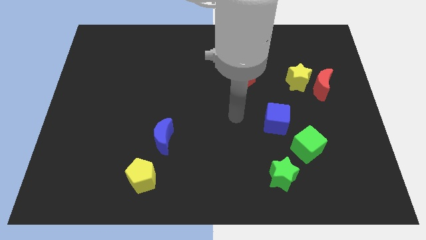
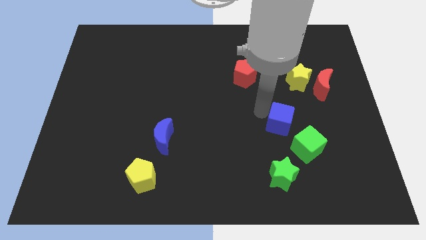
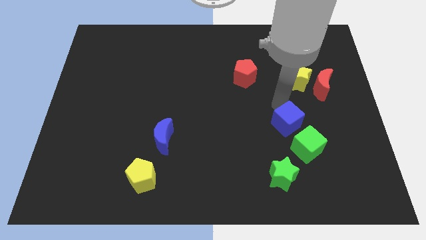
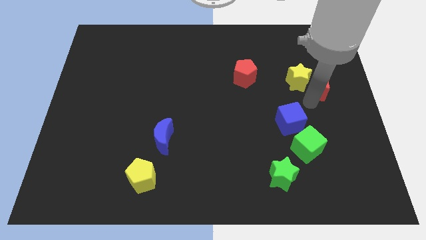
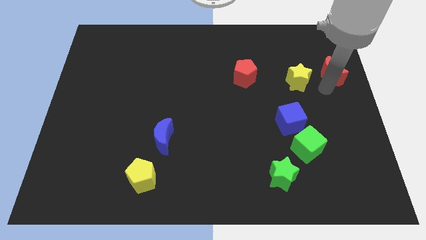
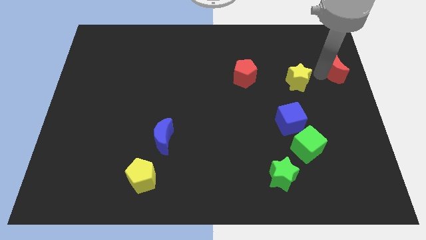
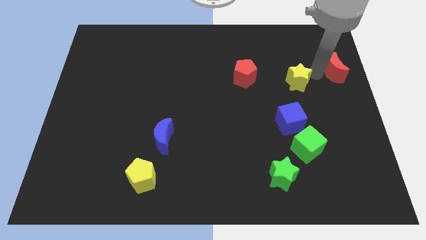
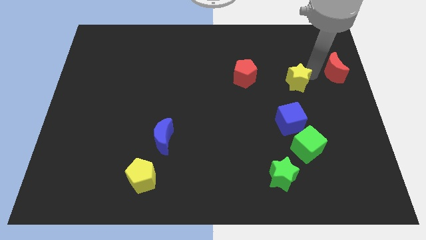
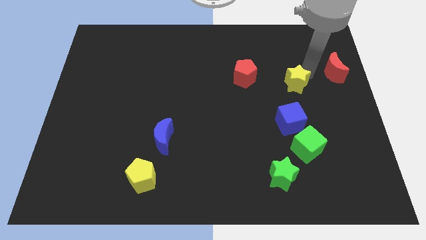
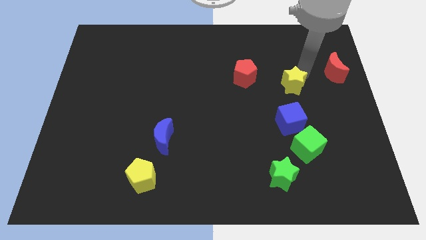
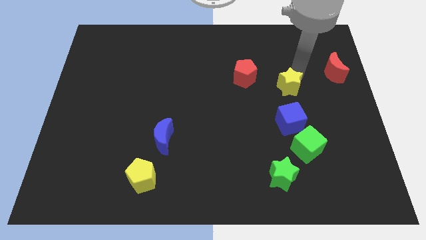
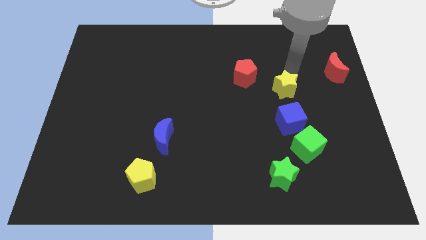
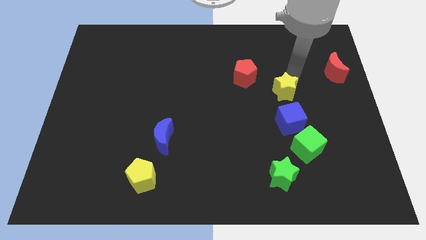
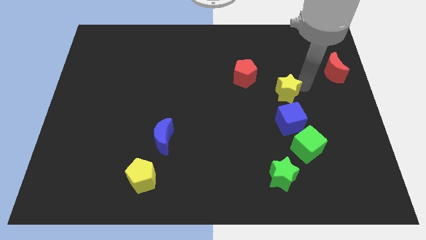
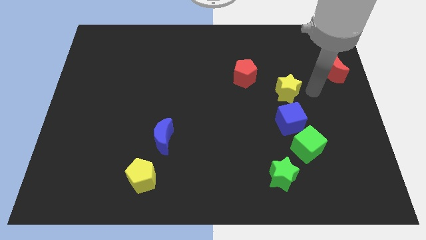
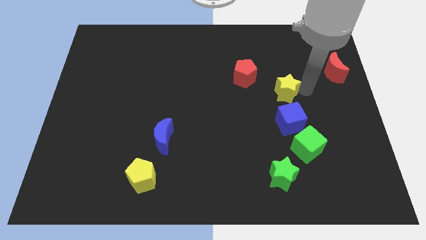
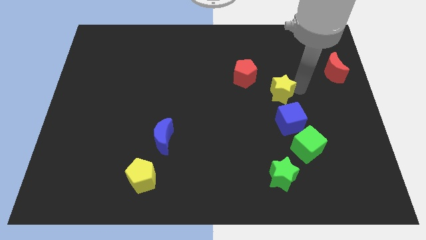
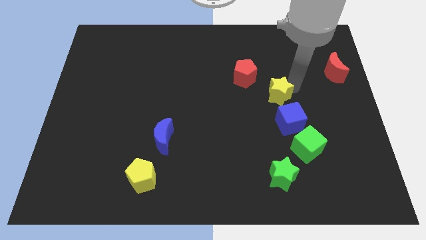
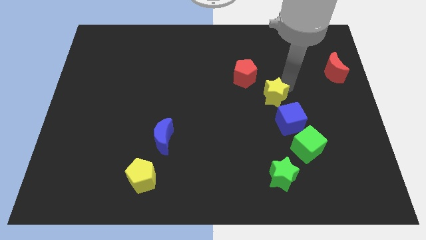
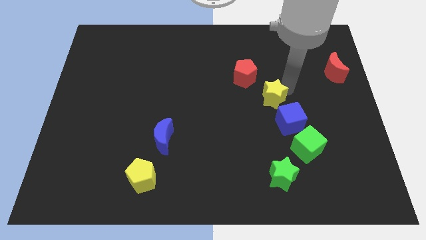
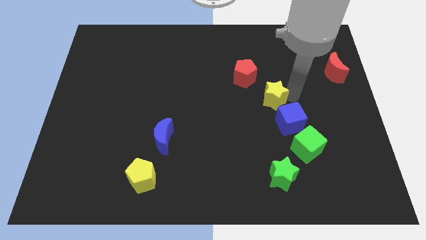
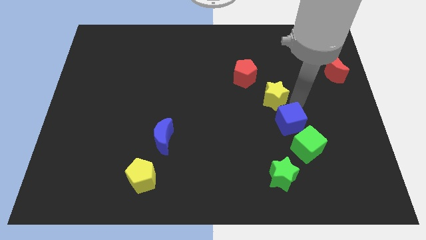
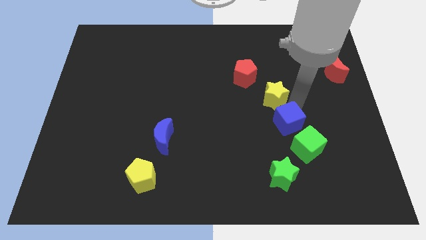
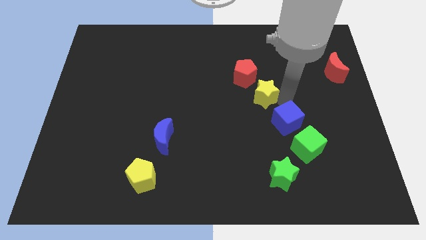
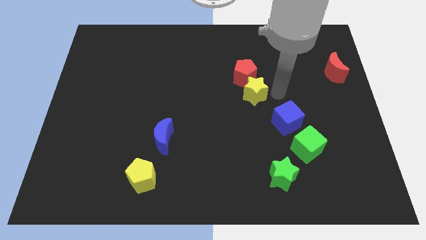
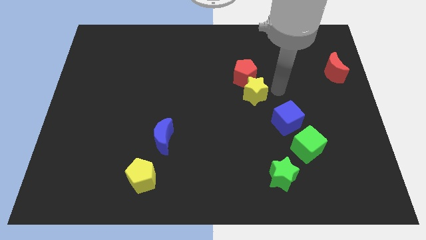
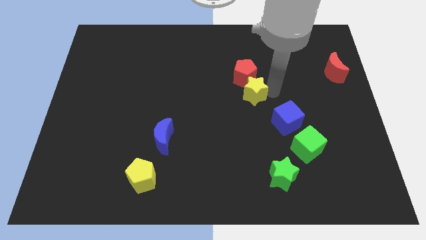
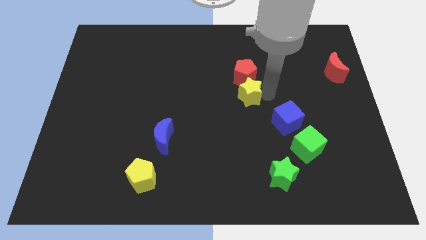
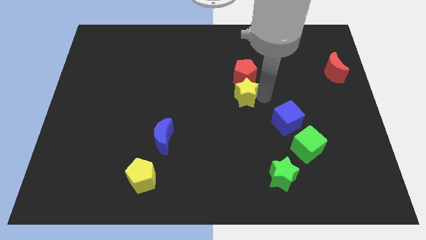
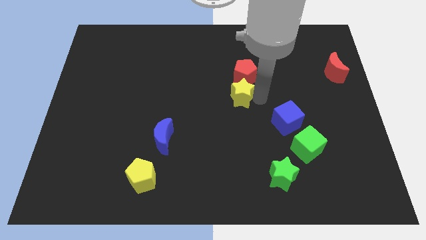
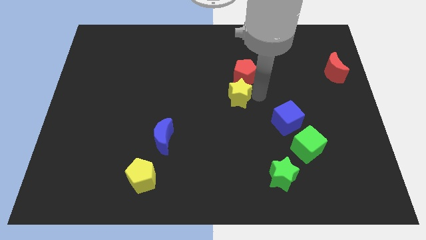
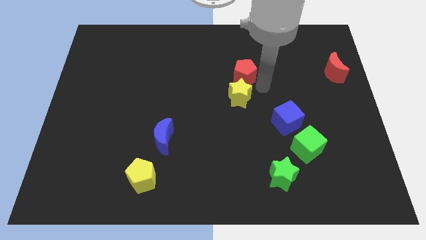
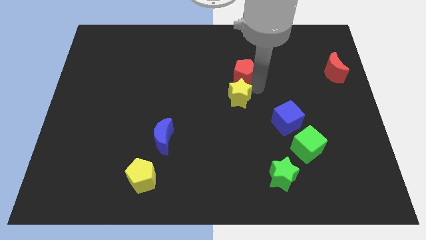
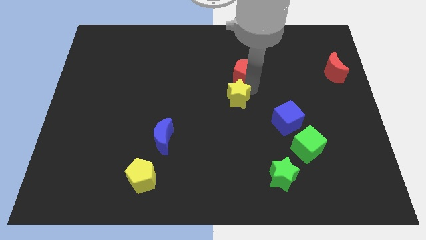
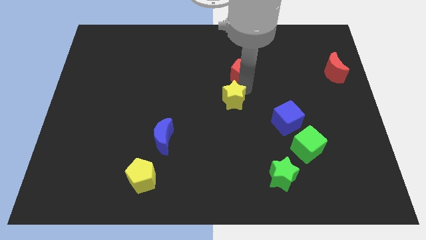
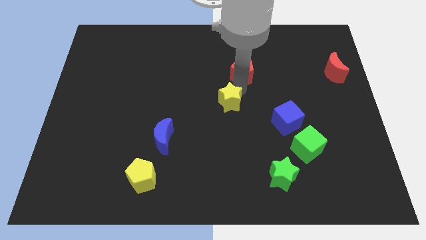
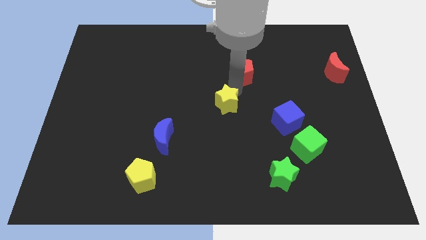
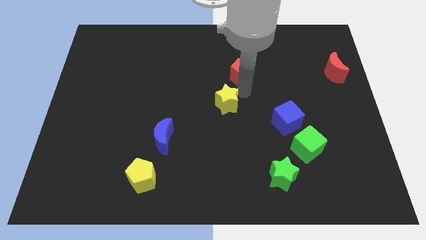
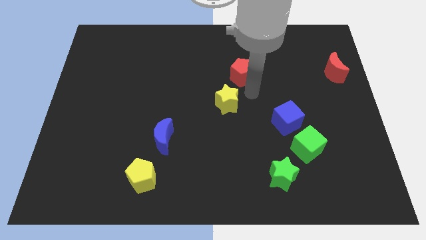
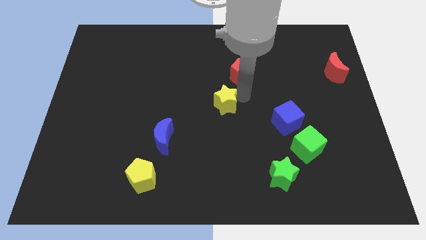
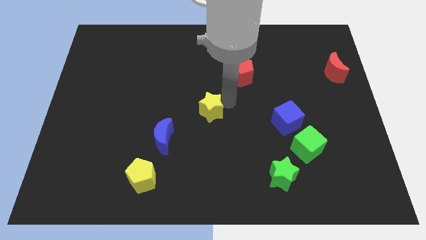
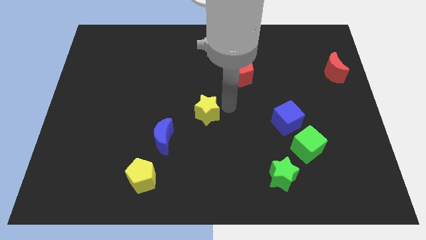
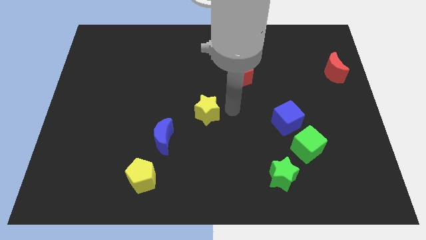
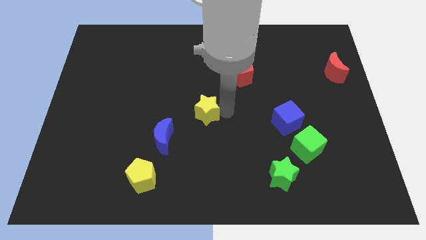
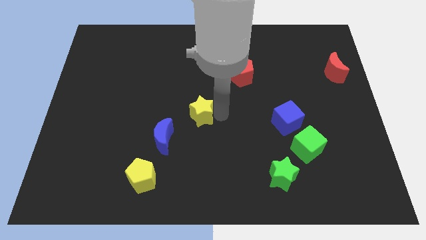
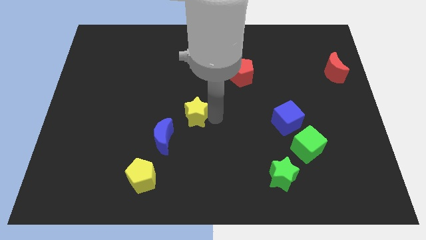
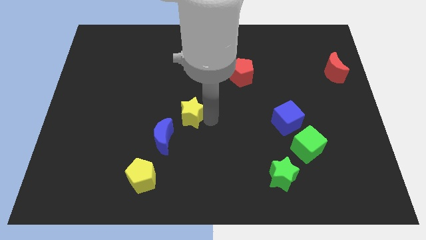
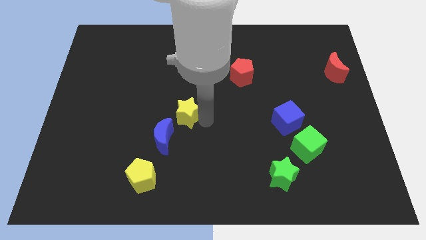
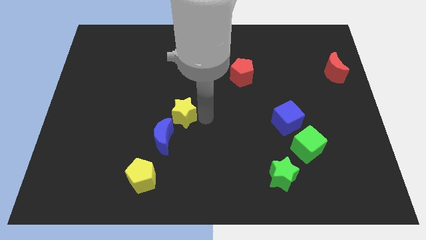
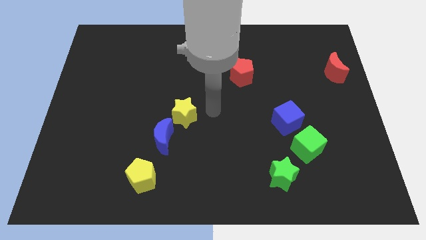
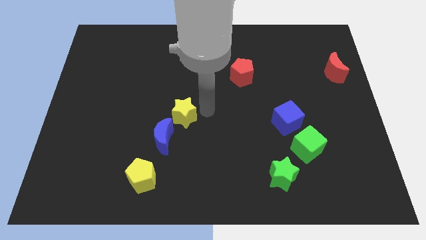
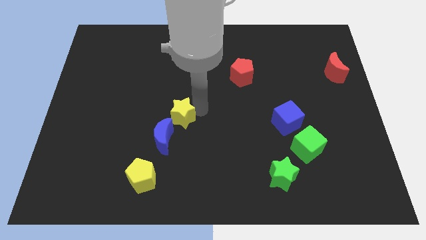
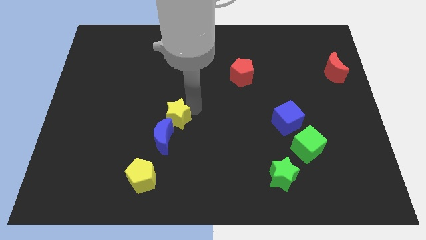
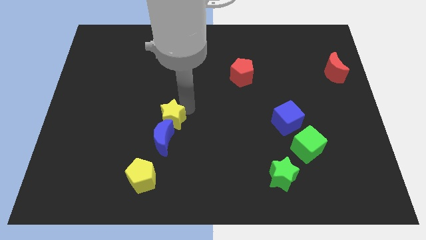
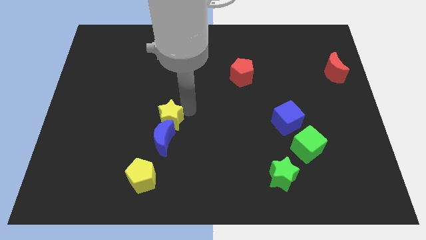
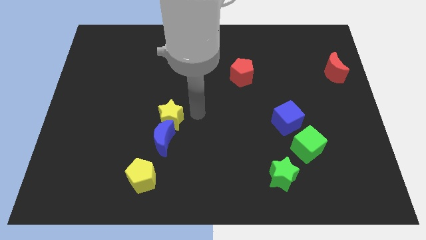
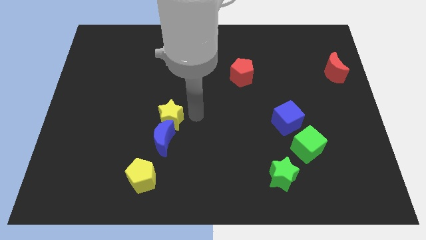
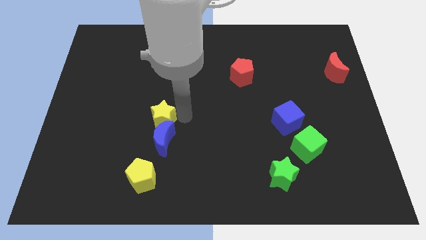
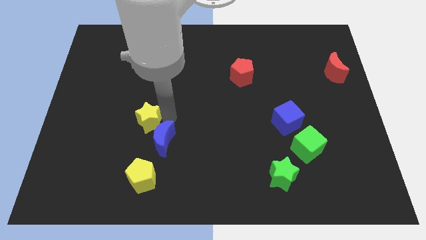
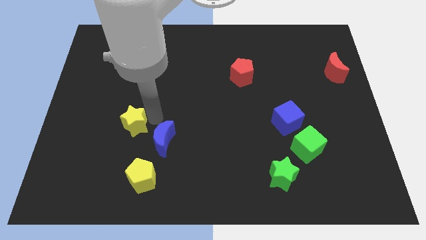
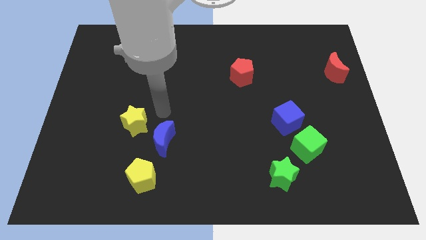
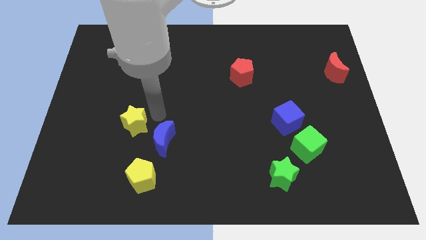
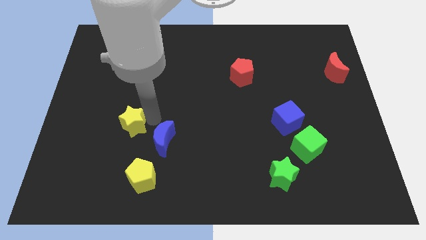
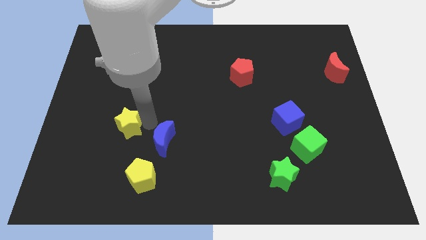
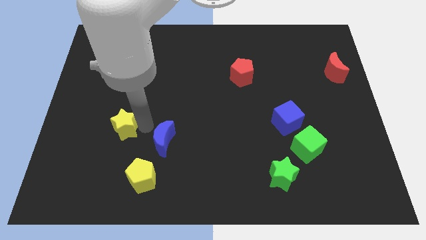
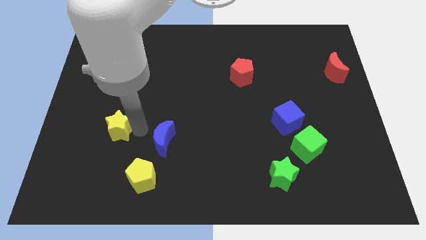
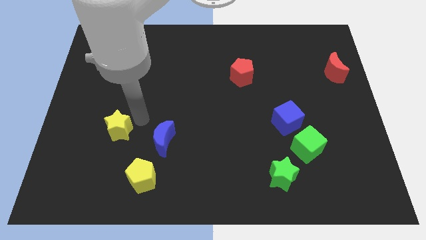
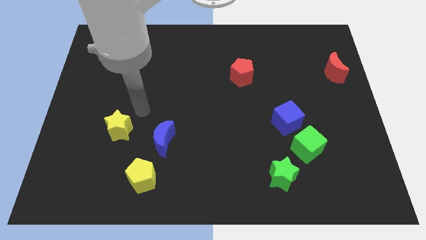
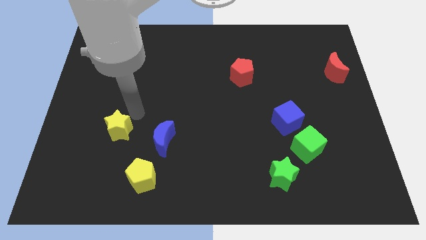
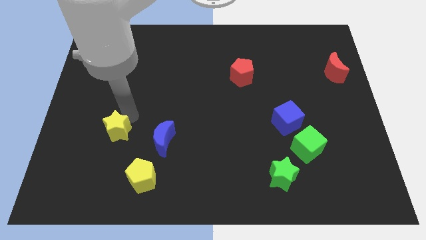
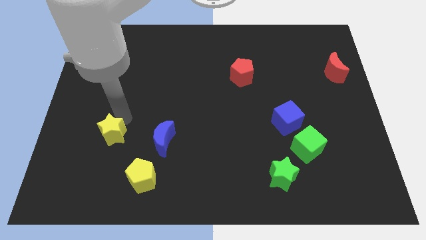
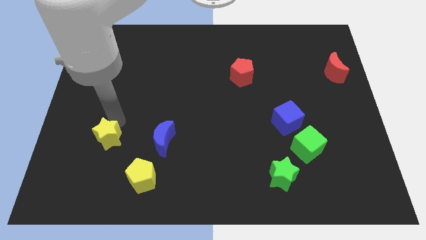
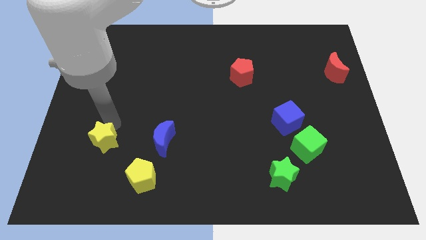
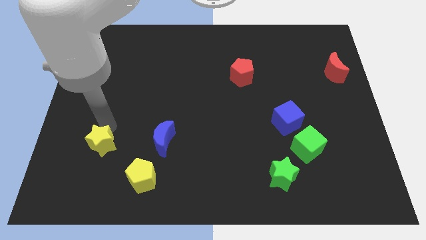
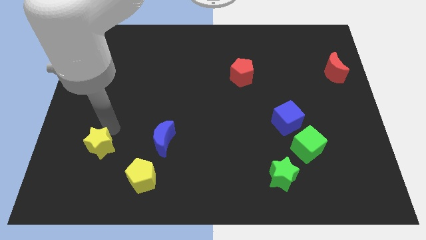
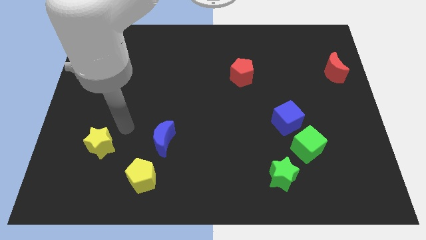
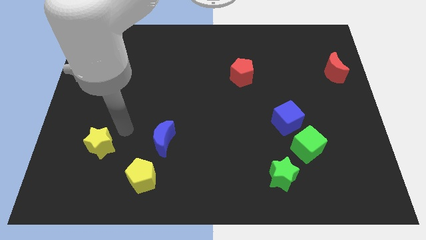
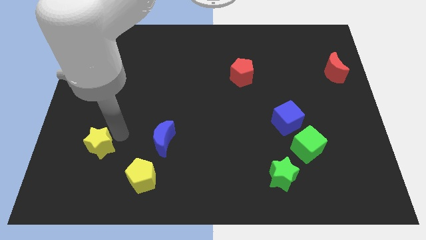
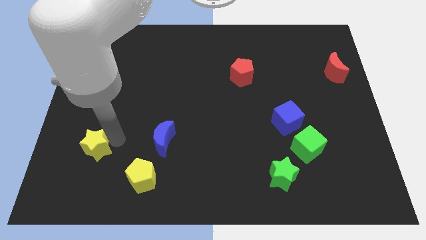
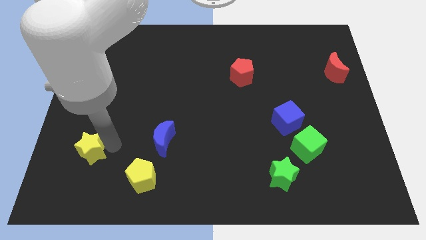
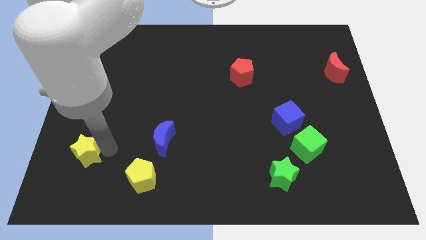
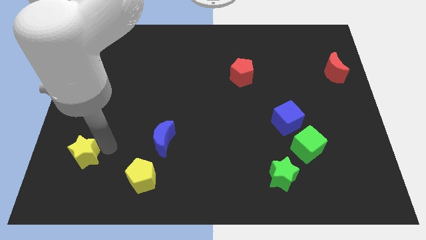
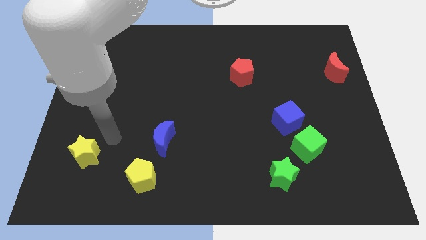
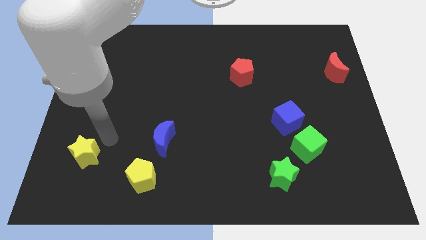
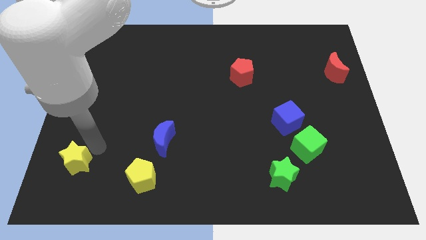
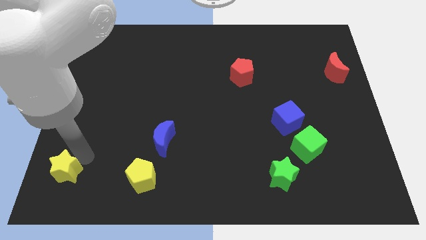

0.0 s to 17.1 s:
slide the yellow star to the bottom left
